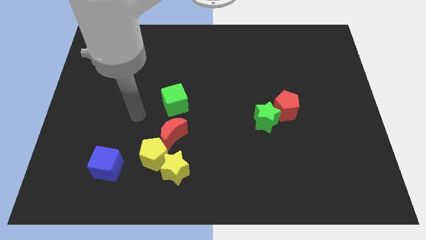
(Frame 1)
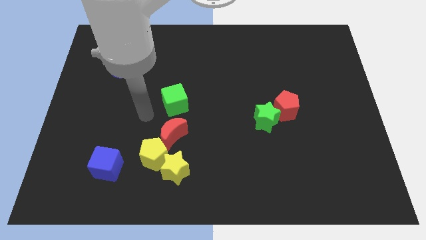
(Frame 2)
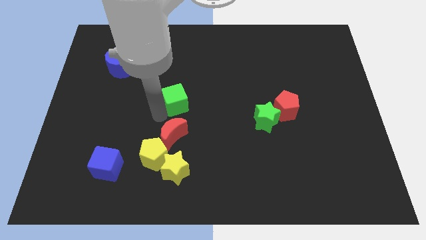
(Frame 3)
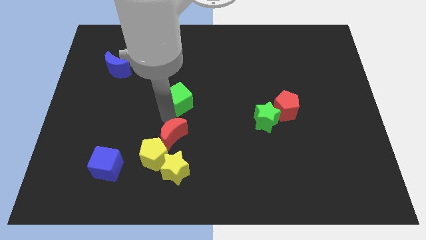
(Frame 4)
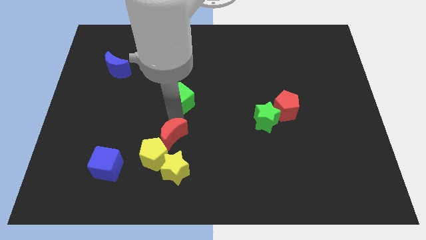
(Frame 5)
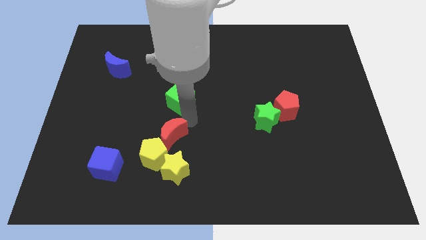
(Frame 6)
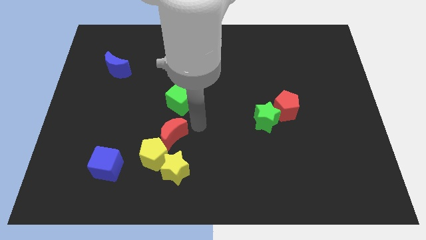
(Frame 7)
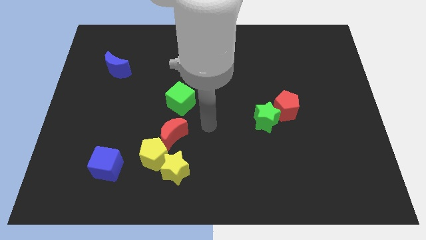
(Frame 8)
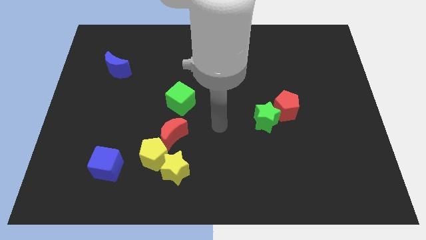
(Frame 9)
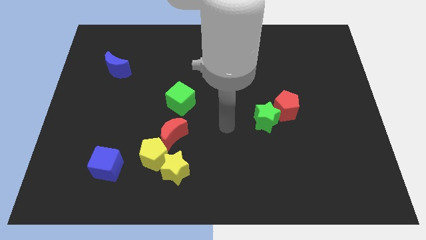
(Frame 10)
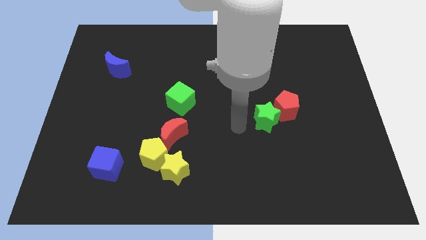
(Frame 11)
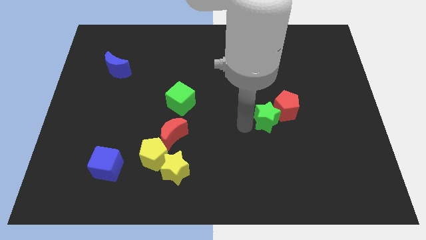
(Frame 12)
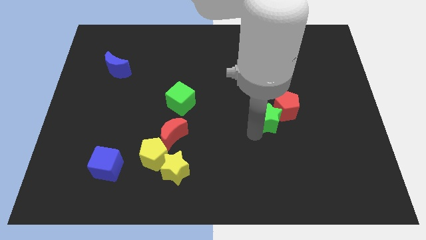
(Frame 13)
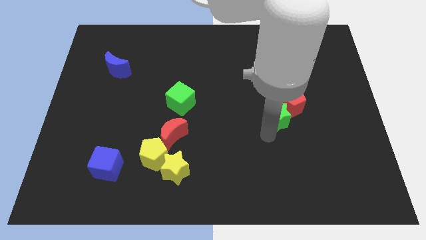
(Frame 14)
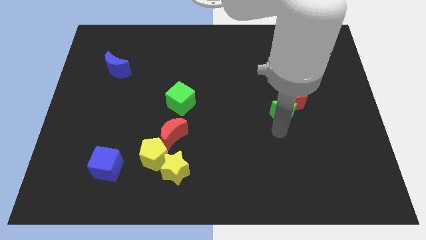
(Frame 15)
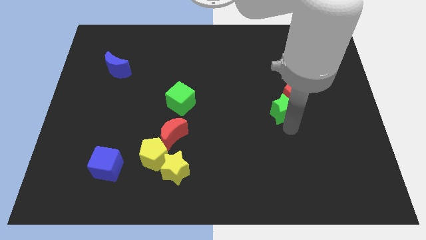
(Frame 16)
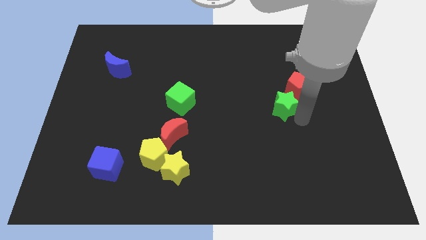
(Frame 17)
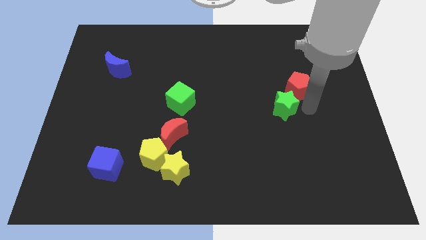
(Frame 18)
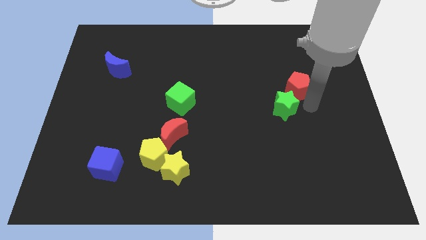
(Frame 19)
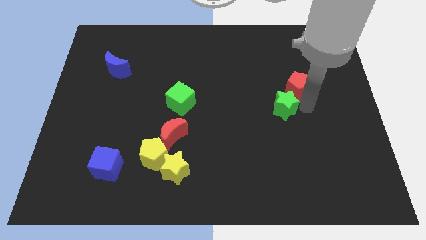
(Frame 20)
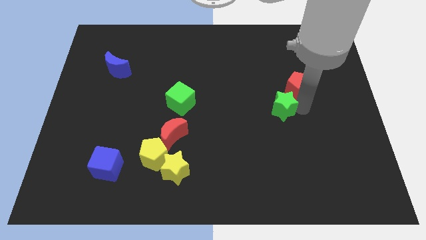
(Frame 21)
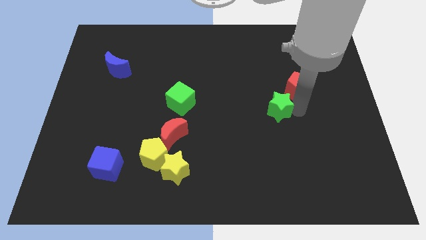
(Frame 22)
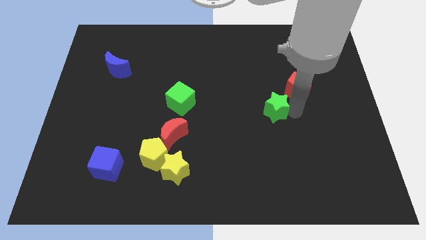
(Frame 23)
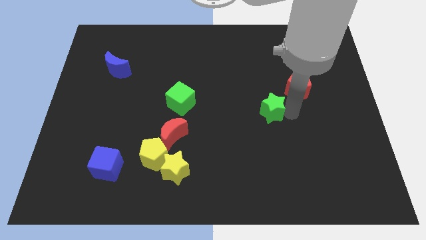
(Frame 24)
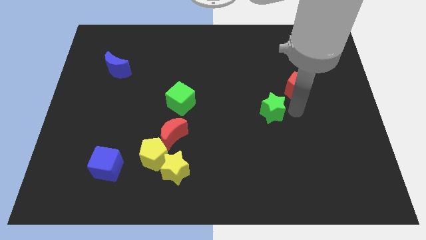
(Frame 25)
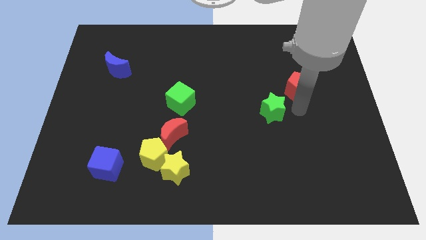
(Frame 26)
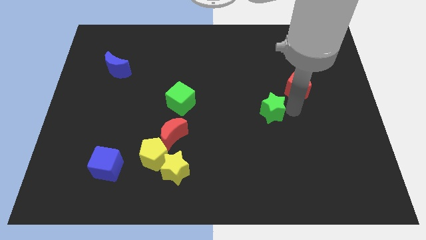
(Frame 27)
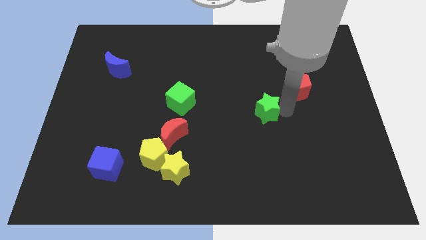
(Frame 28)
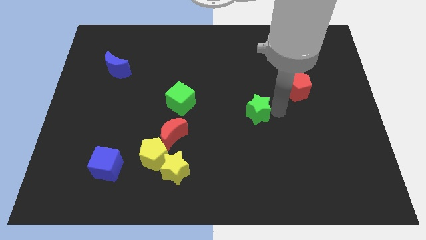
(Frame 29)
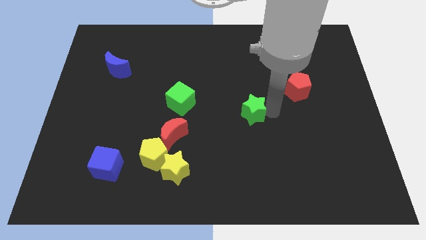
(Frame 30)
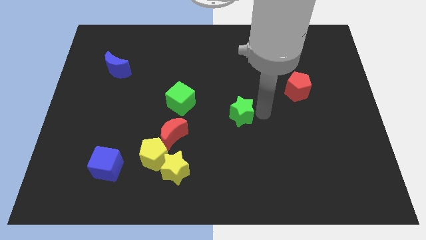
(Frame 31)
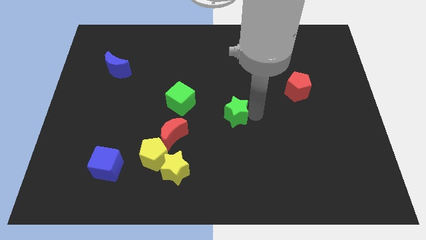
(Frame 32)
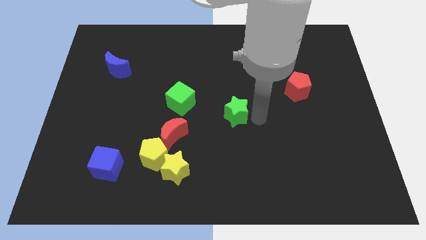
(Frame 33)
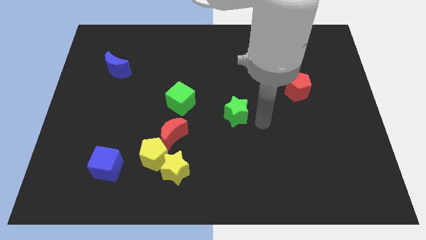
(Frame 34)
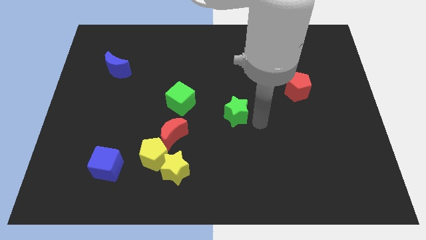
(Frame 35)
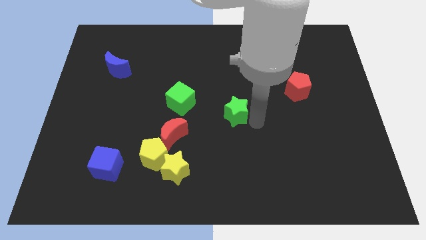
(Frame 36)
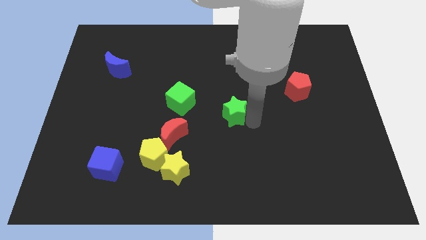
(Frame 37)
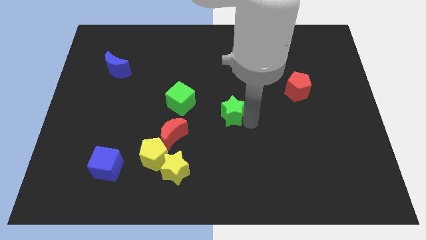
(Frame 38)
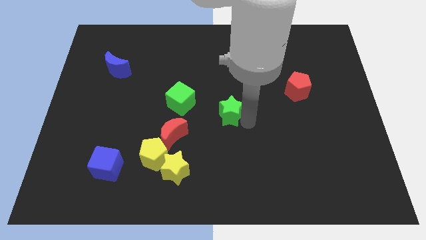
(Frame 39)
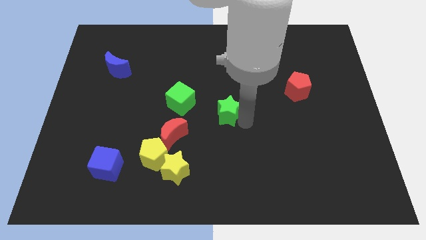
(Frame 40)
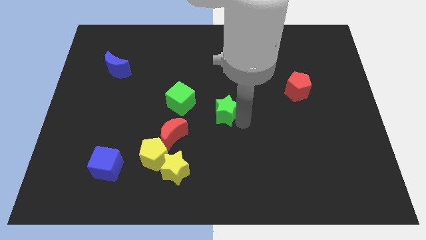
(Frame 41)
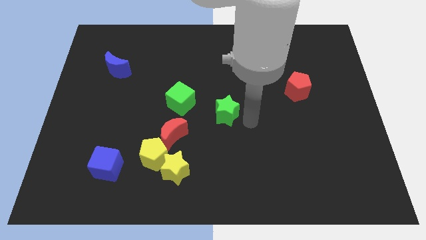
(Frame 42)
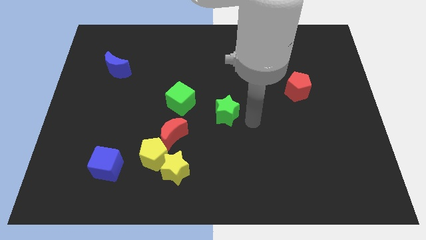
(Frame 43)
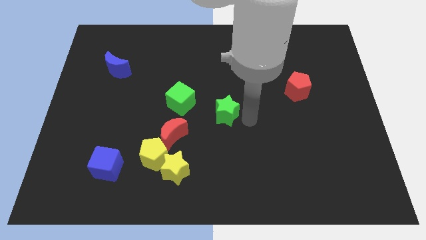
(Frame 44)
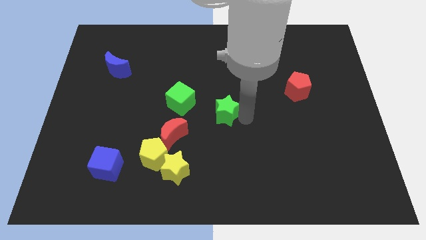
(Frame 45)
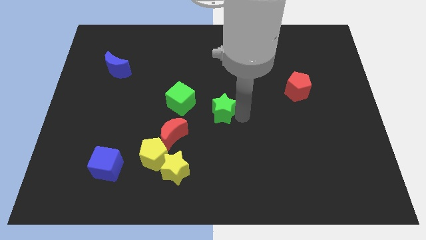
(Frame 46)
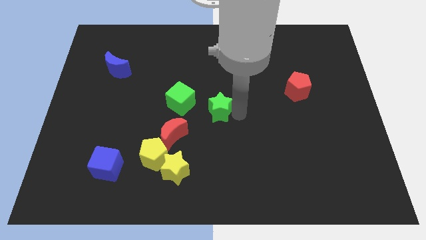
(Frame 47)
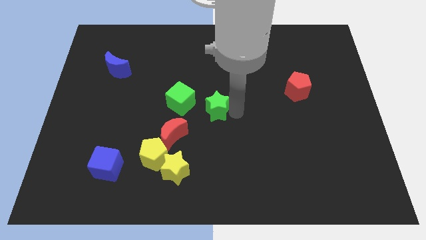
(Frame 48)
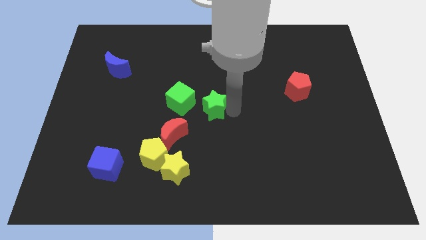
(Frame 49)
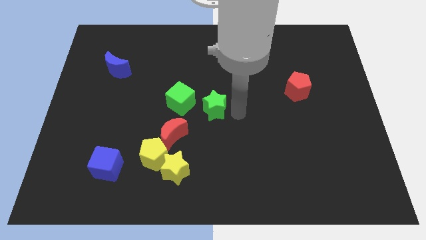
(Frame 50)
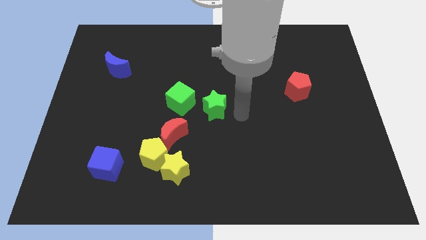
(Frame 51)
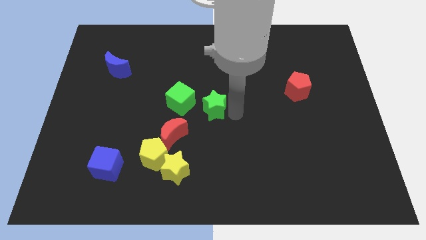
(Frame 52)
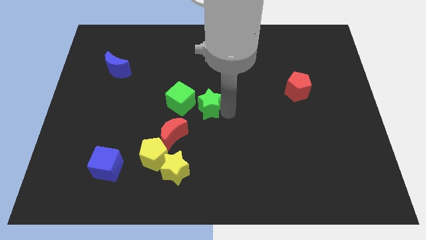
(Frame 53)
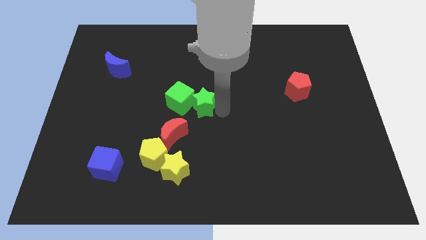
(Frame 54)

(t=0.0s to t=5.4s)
slide the green star next to the green cube

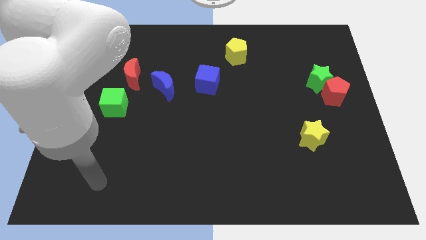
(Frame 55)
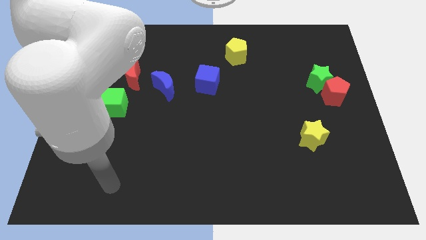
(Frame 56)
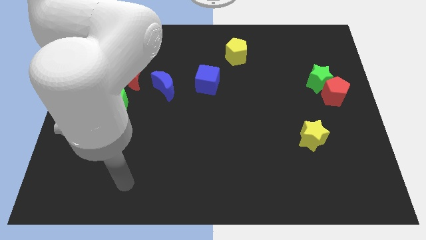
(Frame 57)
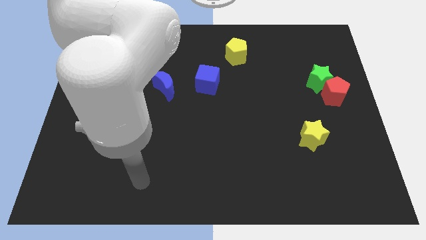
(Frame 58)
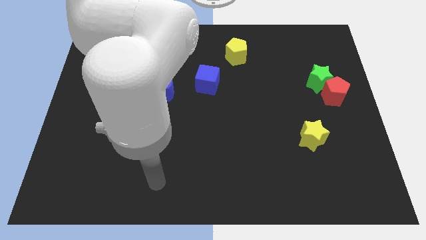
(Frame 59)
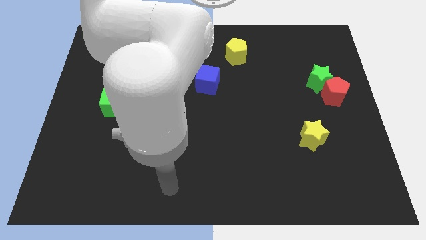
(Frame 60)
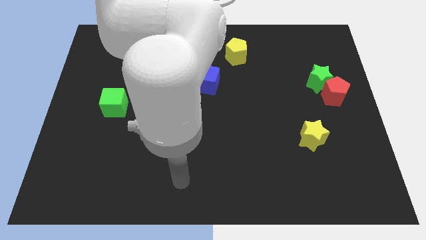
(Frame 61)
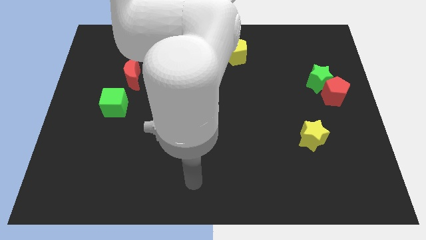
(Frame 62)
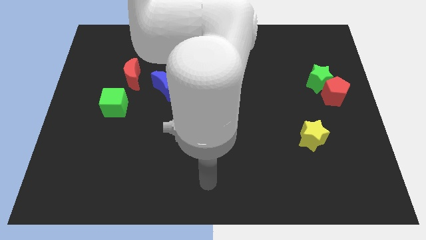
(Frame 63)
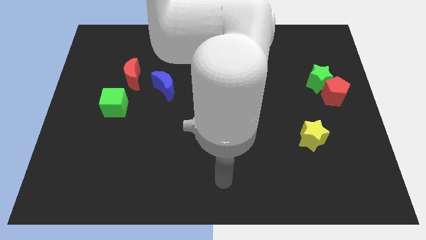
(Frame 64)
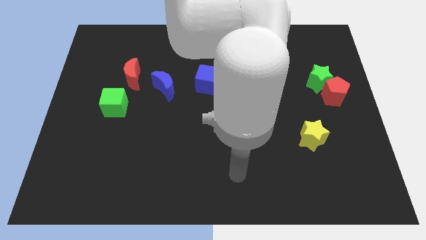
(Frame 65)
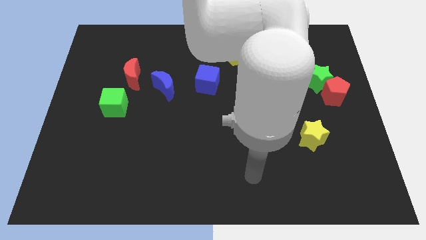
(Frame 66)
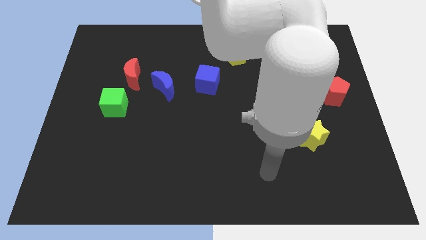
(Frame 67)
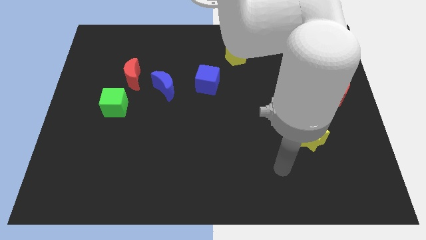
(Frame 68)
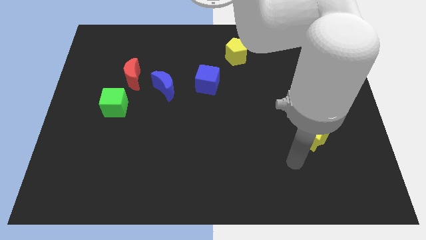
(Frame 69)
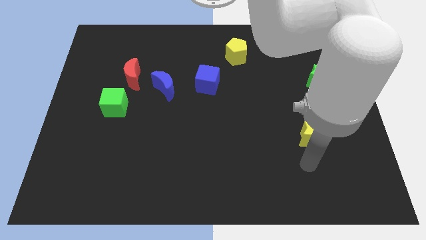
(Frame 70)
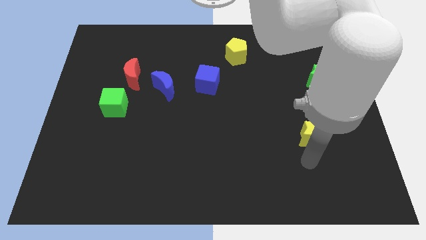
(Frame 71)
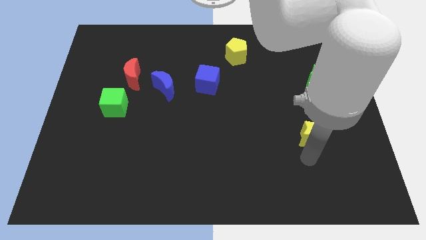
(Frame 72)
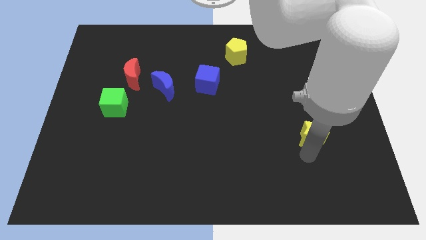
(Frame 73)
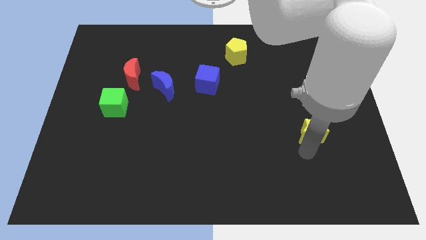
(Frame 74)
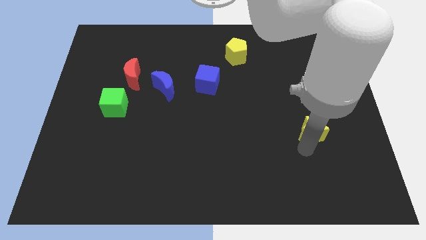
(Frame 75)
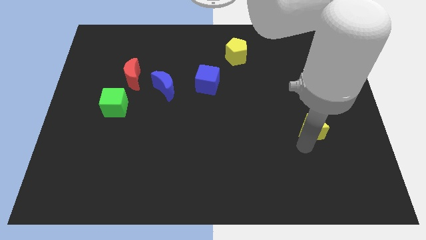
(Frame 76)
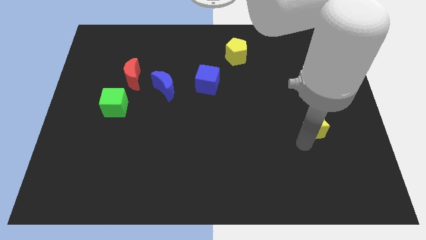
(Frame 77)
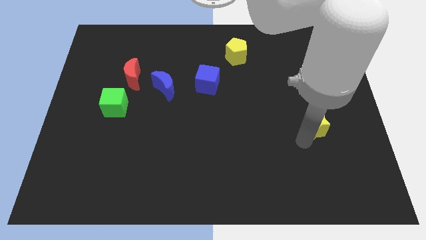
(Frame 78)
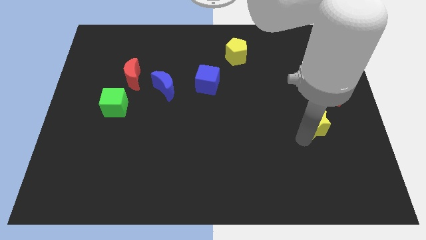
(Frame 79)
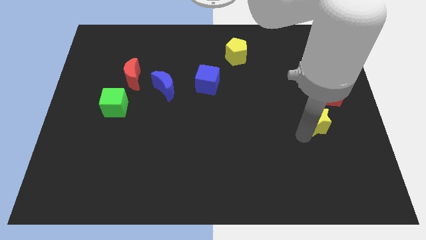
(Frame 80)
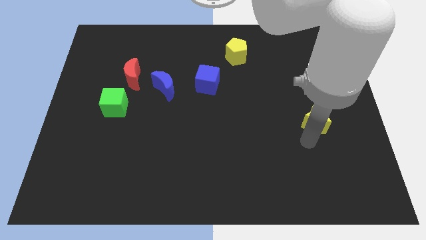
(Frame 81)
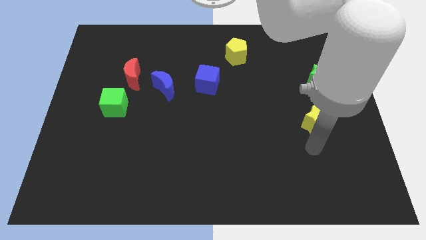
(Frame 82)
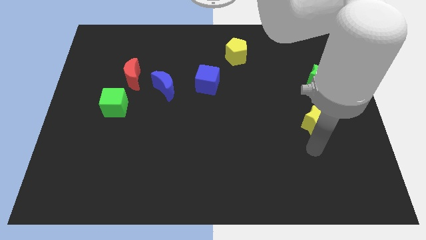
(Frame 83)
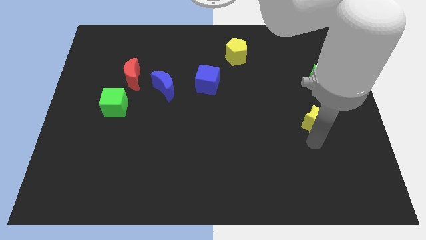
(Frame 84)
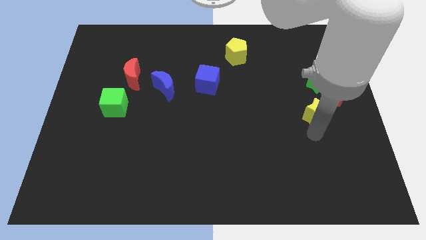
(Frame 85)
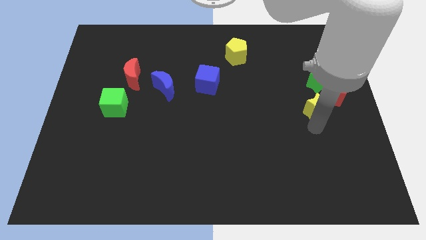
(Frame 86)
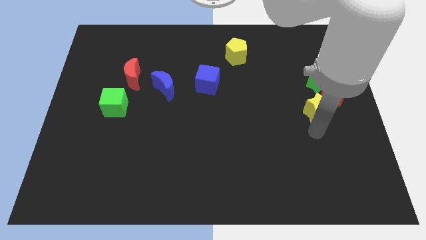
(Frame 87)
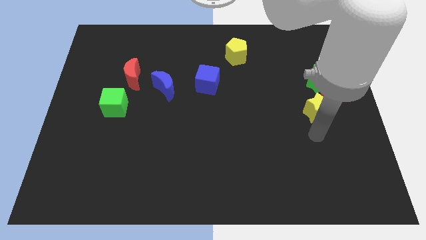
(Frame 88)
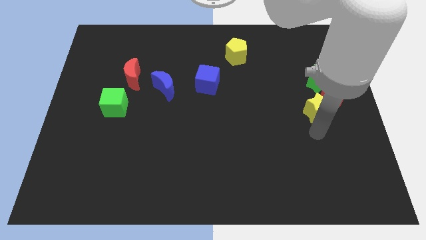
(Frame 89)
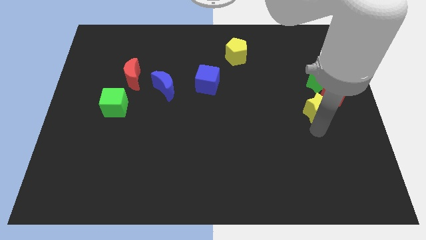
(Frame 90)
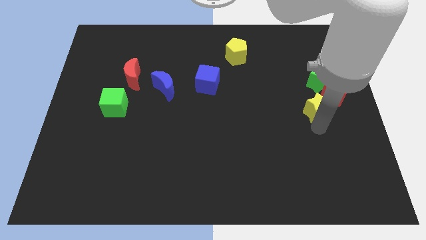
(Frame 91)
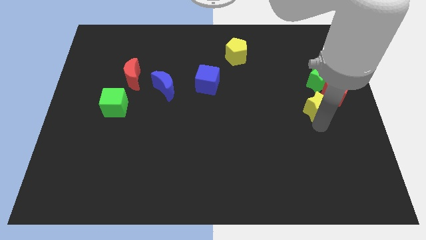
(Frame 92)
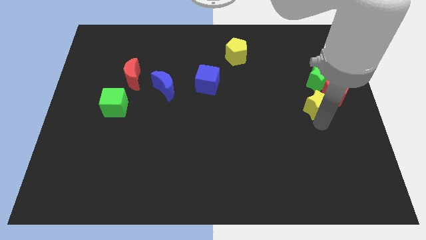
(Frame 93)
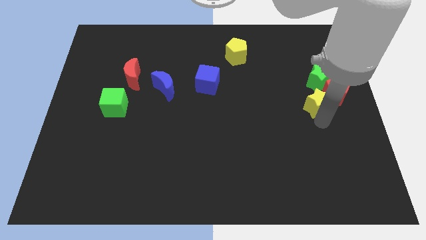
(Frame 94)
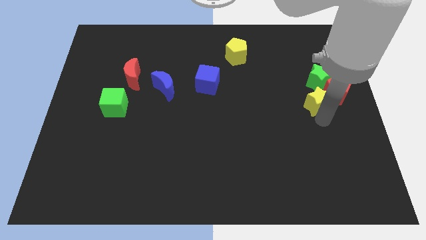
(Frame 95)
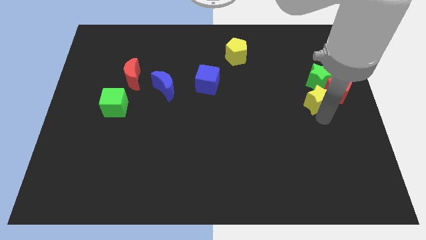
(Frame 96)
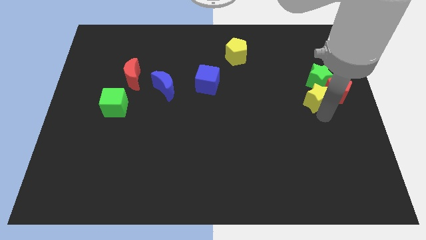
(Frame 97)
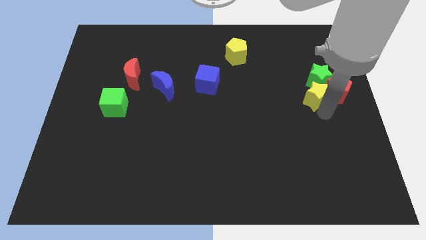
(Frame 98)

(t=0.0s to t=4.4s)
slide the yellow star next to the green star
